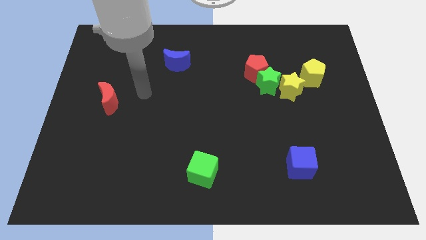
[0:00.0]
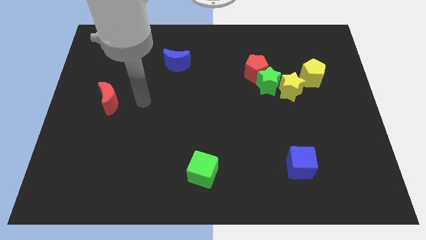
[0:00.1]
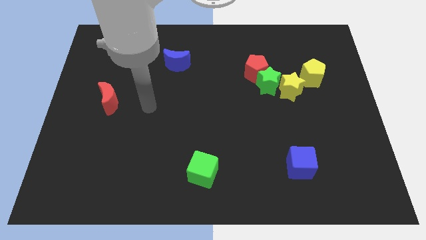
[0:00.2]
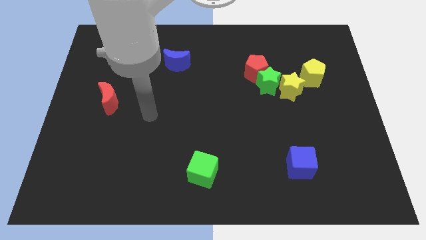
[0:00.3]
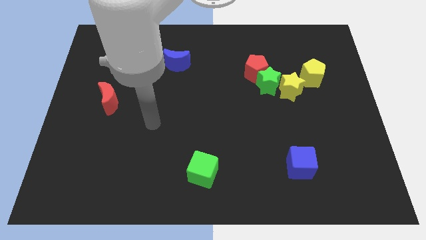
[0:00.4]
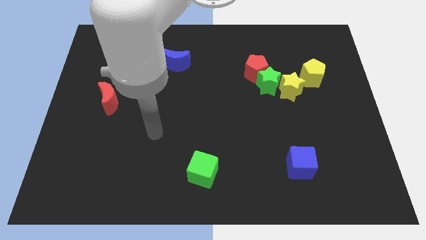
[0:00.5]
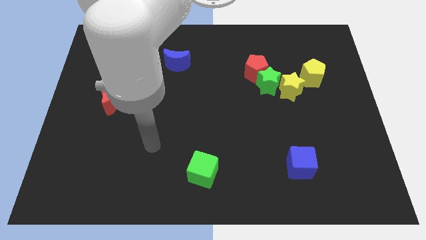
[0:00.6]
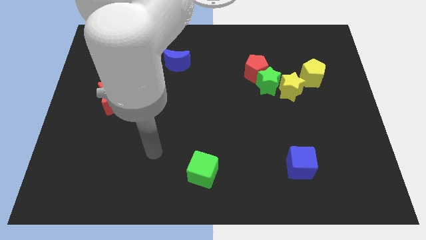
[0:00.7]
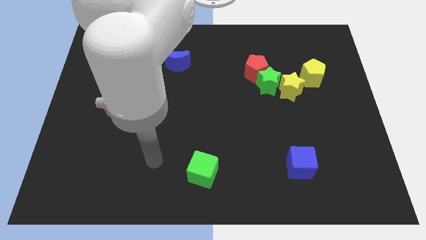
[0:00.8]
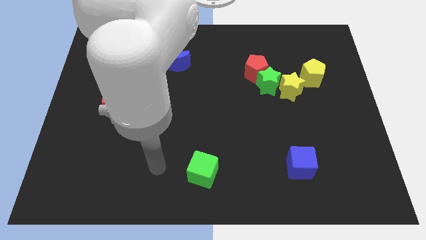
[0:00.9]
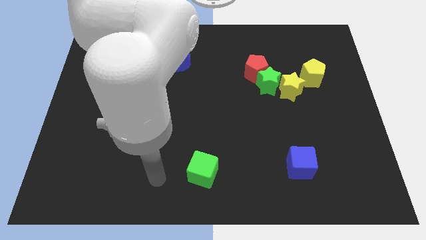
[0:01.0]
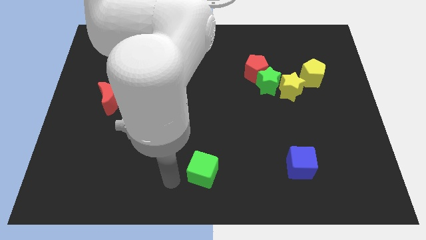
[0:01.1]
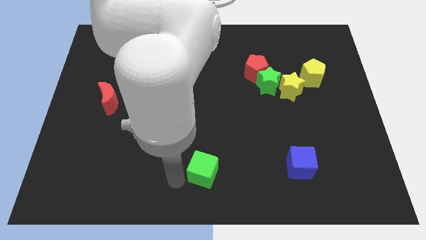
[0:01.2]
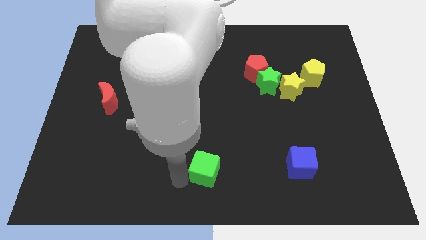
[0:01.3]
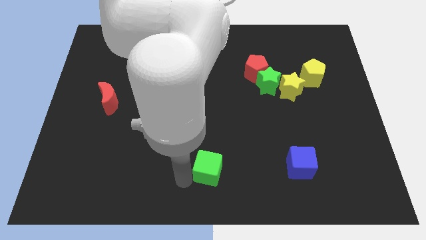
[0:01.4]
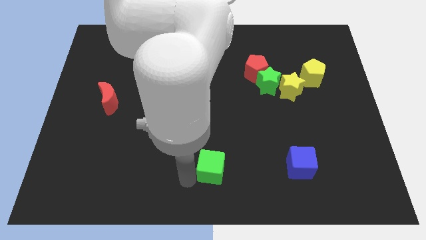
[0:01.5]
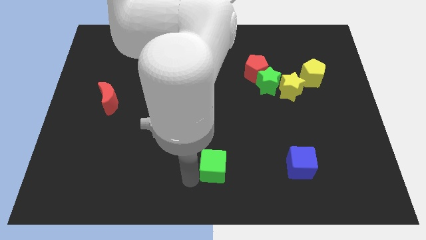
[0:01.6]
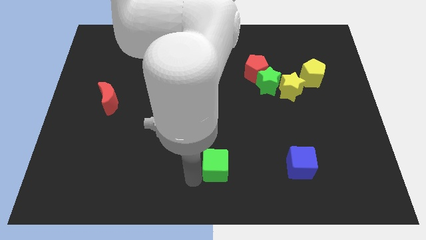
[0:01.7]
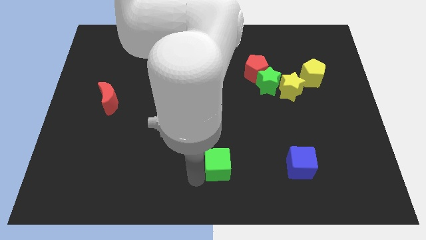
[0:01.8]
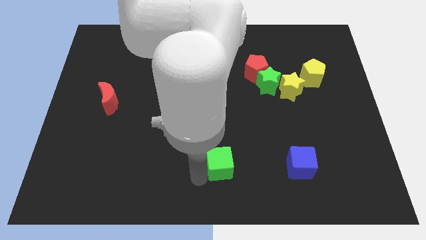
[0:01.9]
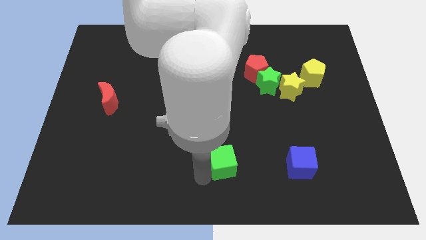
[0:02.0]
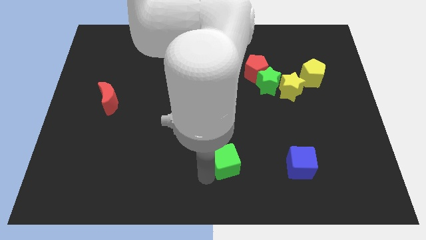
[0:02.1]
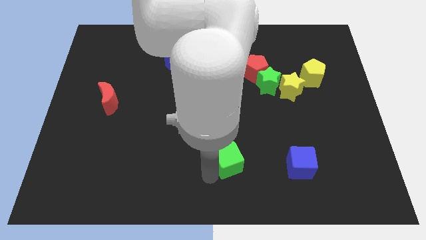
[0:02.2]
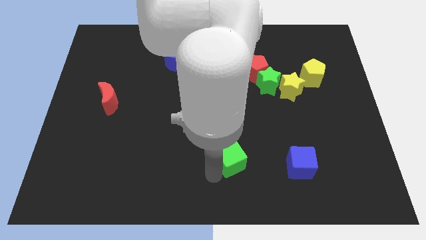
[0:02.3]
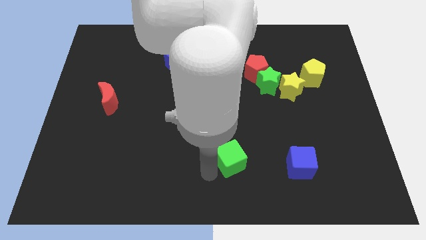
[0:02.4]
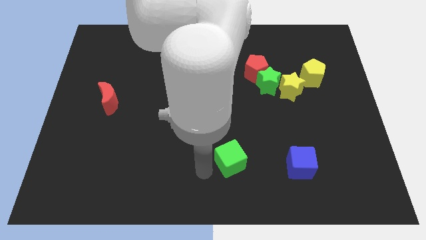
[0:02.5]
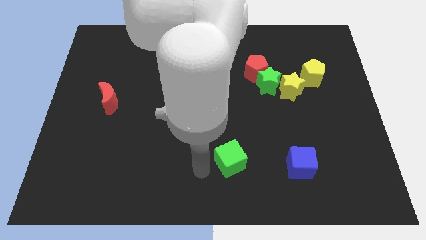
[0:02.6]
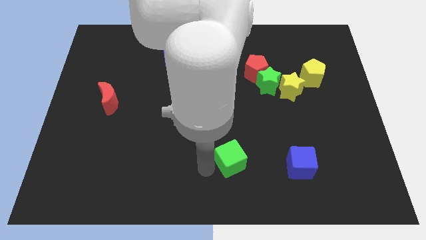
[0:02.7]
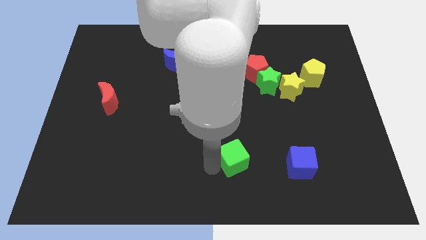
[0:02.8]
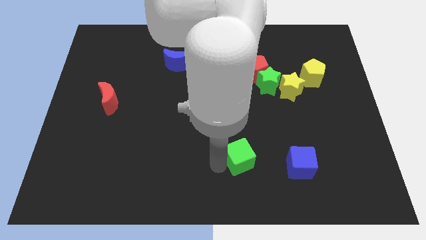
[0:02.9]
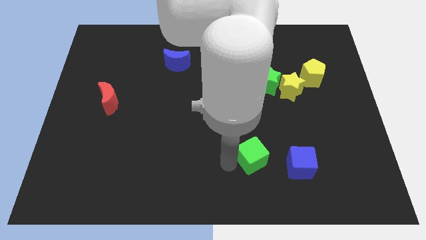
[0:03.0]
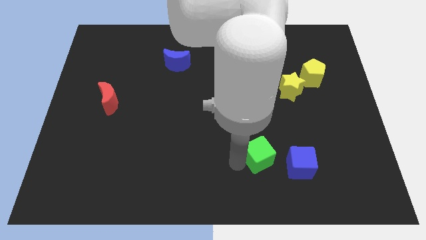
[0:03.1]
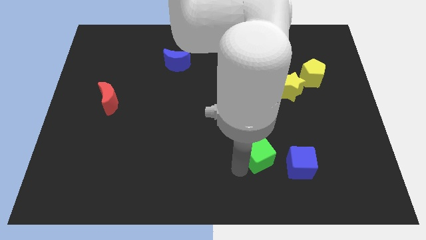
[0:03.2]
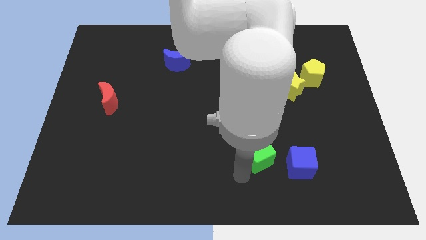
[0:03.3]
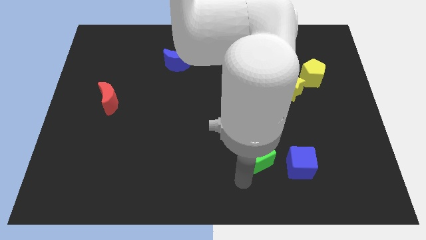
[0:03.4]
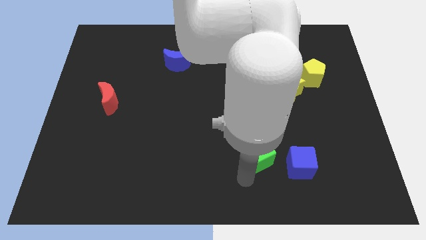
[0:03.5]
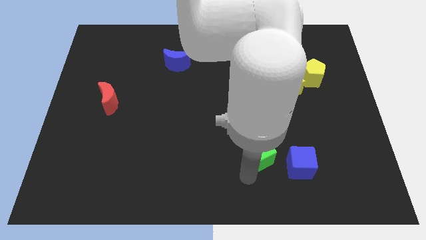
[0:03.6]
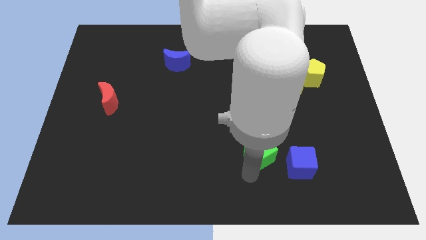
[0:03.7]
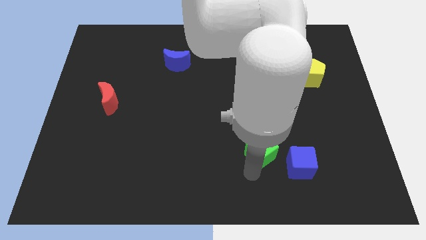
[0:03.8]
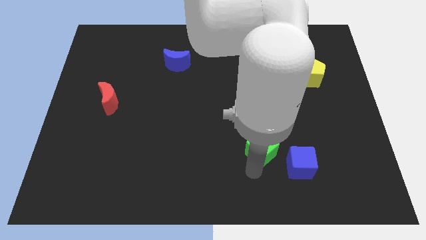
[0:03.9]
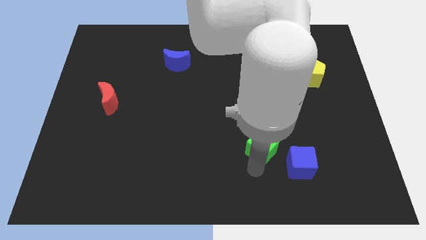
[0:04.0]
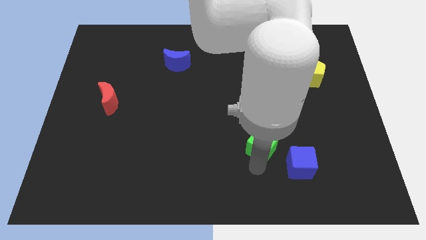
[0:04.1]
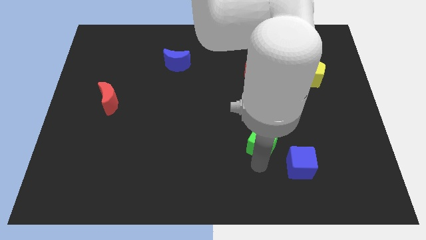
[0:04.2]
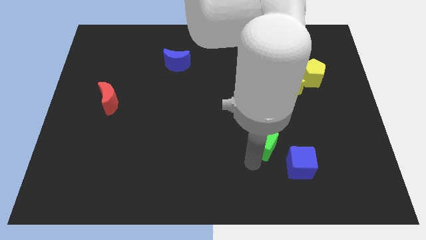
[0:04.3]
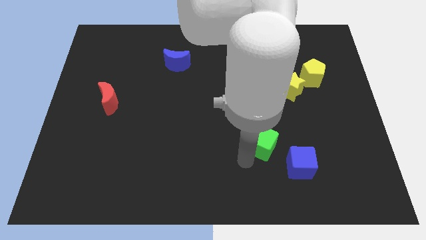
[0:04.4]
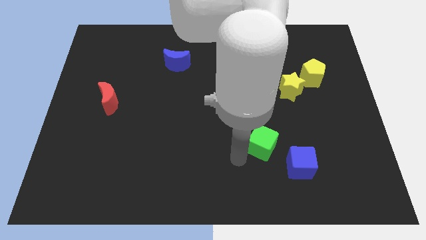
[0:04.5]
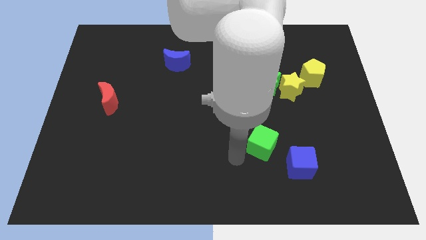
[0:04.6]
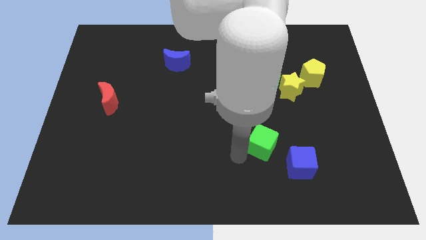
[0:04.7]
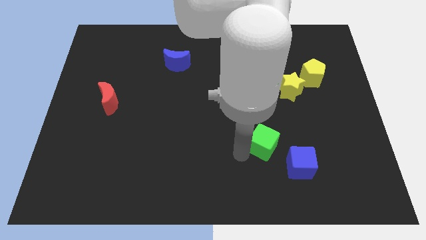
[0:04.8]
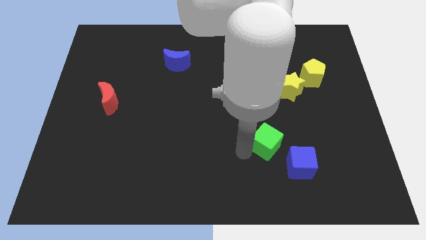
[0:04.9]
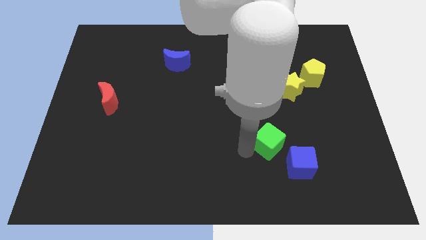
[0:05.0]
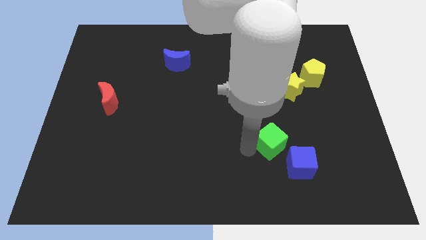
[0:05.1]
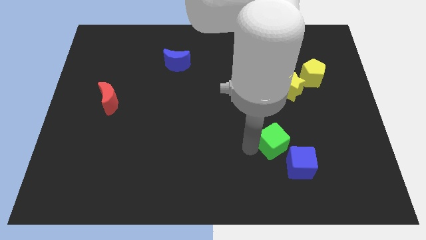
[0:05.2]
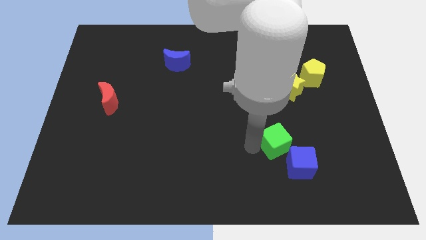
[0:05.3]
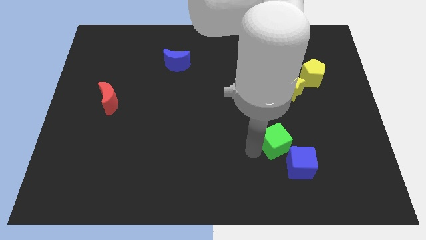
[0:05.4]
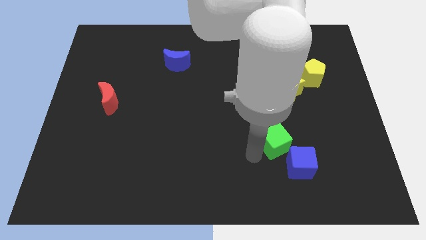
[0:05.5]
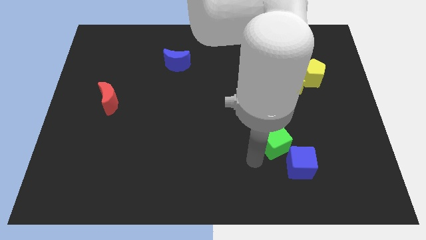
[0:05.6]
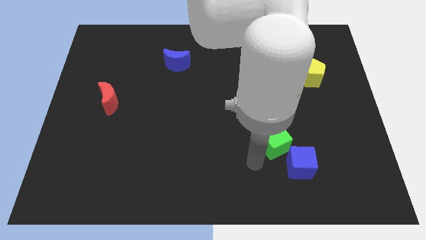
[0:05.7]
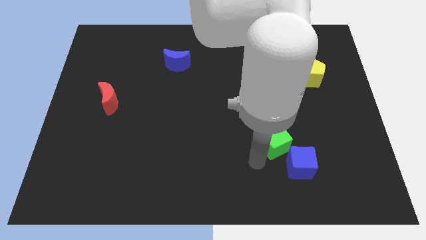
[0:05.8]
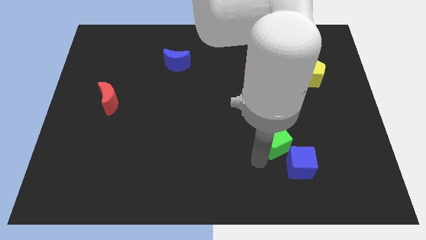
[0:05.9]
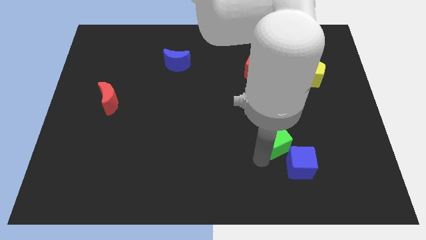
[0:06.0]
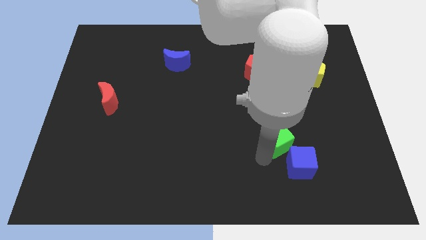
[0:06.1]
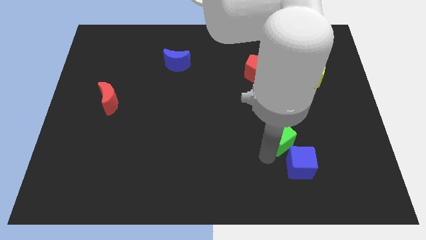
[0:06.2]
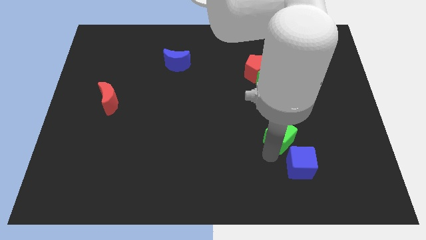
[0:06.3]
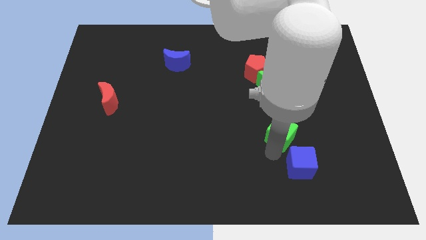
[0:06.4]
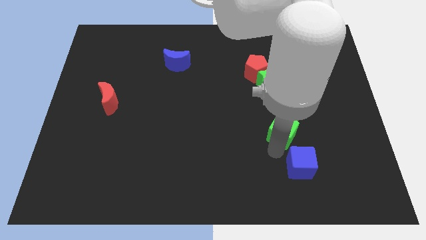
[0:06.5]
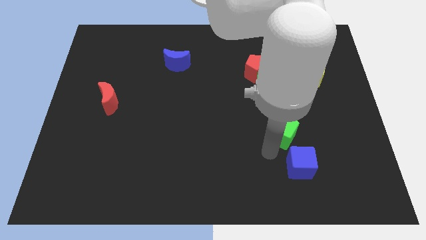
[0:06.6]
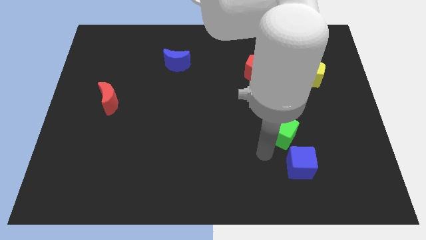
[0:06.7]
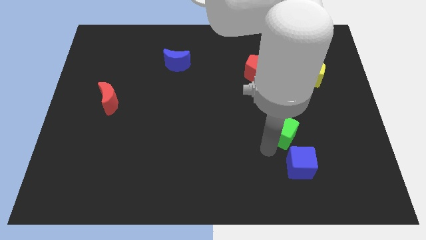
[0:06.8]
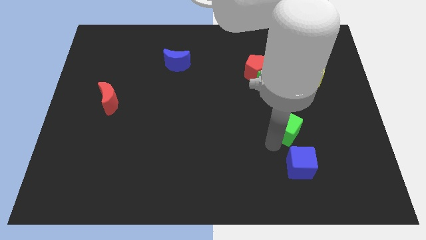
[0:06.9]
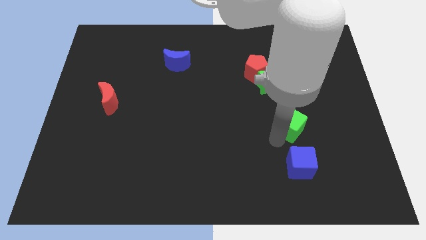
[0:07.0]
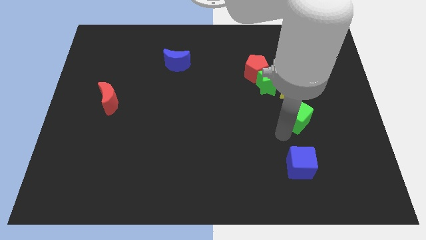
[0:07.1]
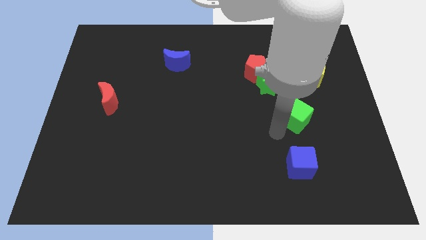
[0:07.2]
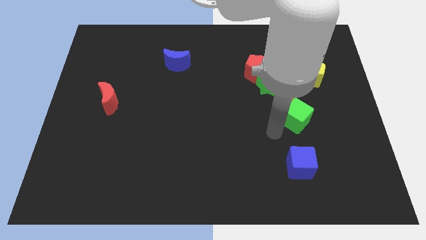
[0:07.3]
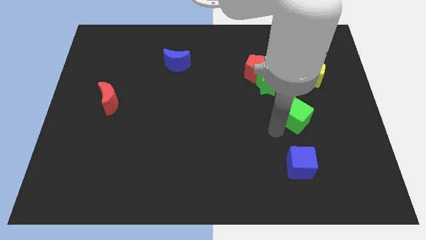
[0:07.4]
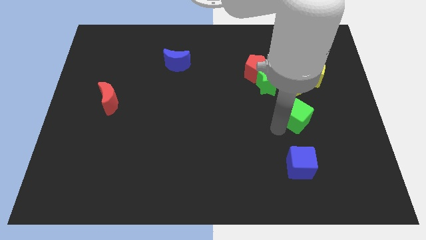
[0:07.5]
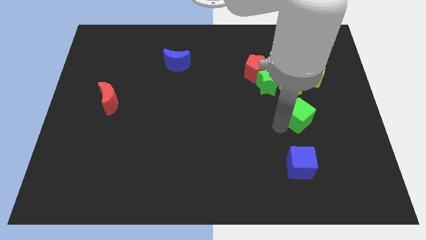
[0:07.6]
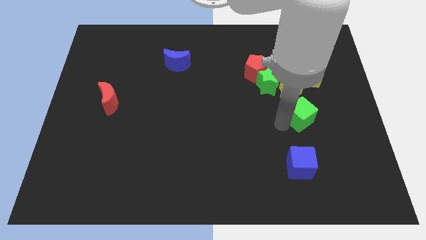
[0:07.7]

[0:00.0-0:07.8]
put the green cube to the bottom right side of the yellow star
